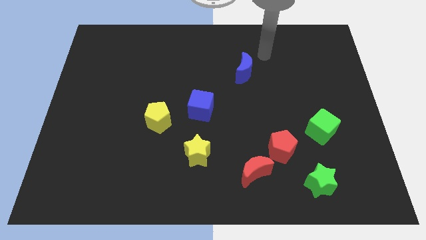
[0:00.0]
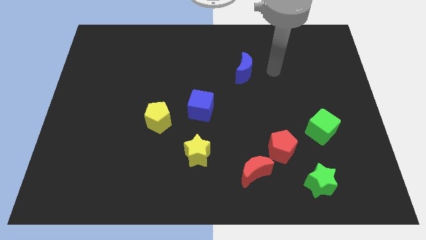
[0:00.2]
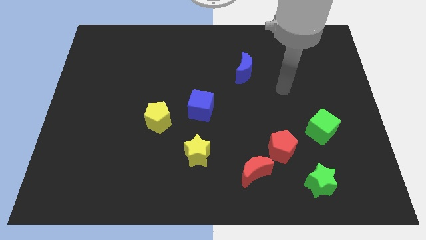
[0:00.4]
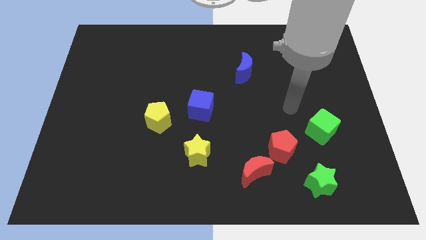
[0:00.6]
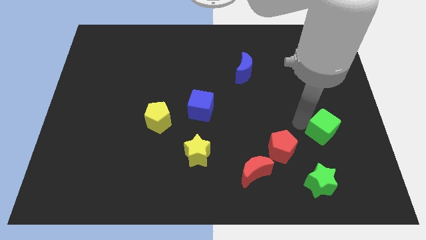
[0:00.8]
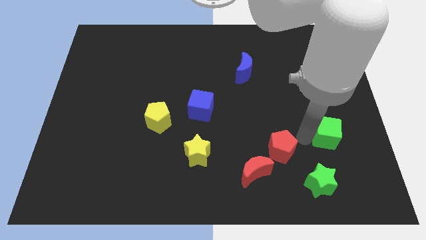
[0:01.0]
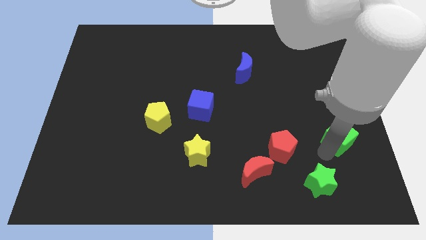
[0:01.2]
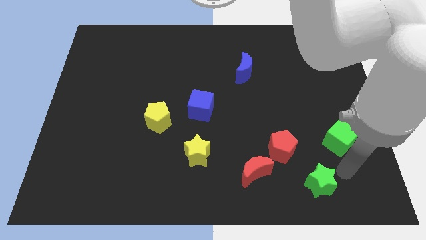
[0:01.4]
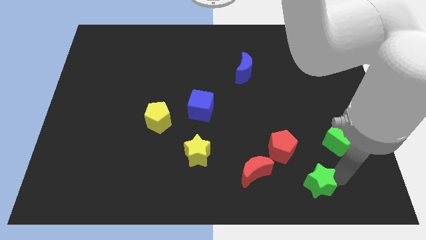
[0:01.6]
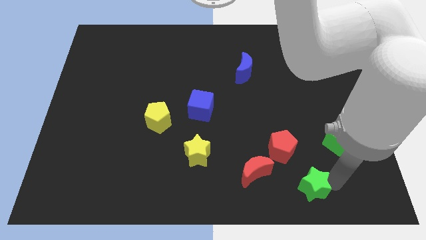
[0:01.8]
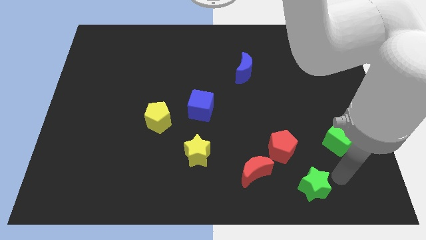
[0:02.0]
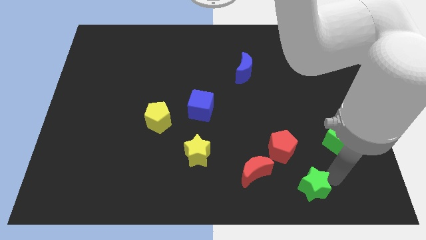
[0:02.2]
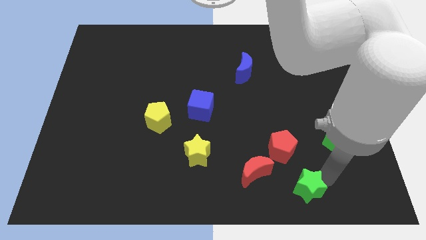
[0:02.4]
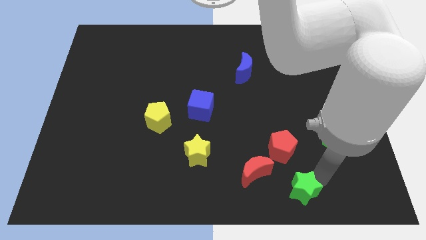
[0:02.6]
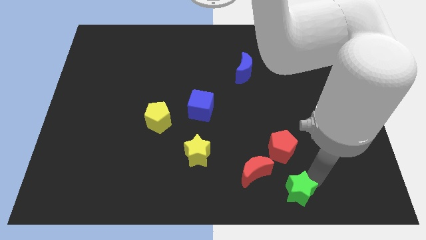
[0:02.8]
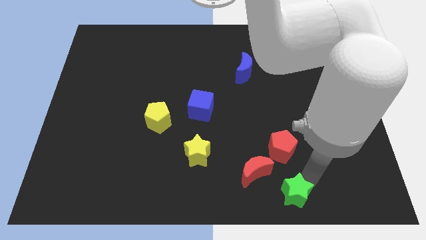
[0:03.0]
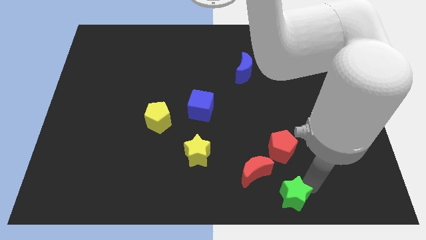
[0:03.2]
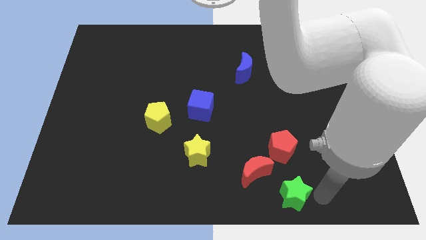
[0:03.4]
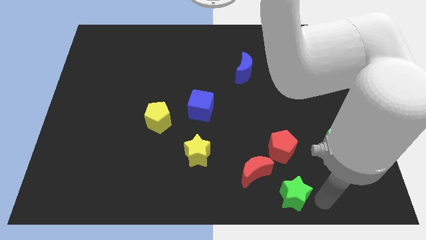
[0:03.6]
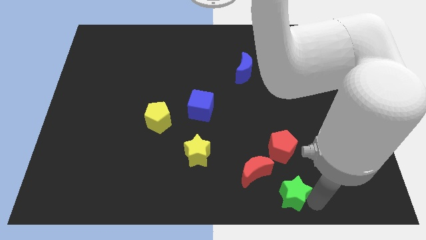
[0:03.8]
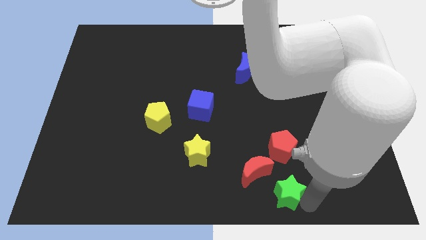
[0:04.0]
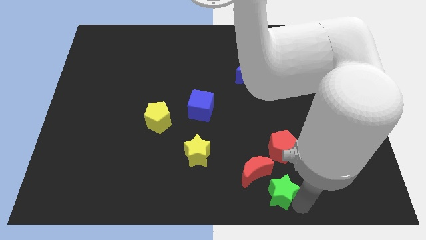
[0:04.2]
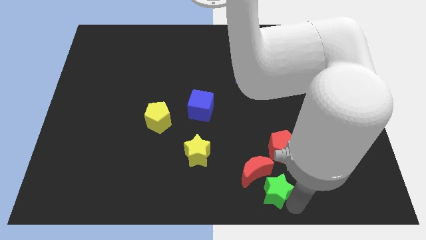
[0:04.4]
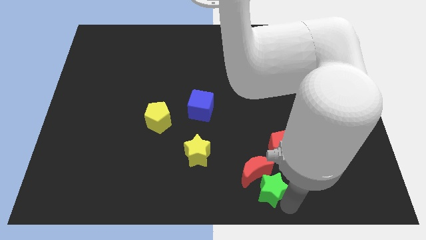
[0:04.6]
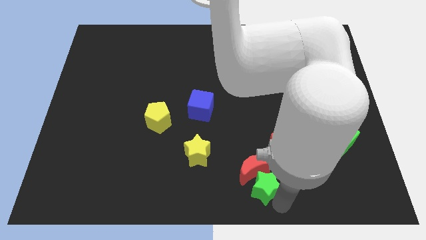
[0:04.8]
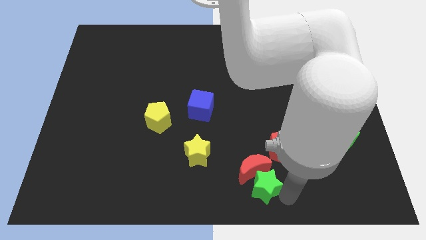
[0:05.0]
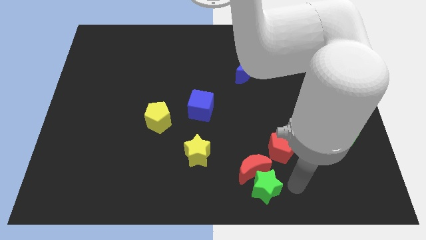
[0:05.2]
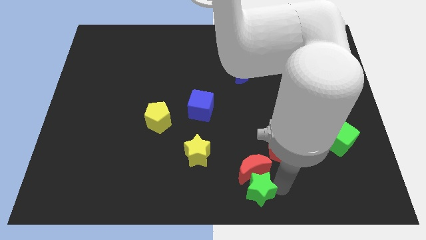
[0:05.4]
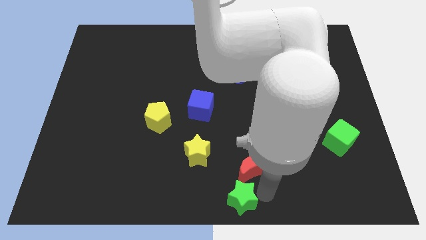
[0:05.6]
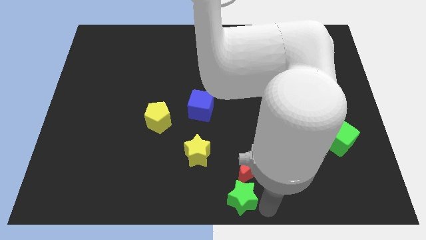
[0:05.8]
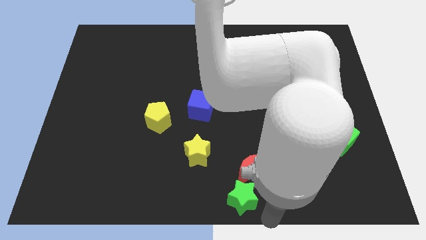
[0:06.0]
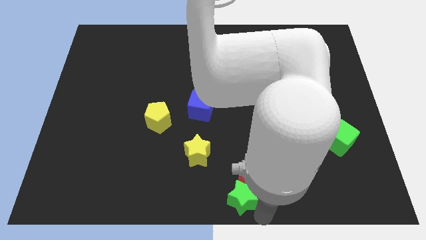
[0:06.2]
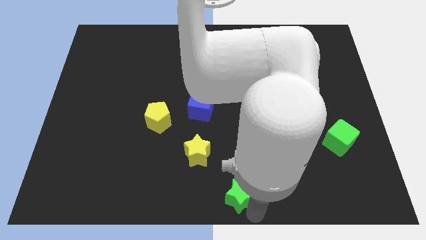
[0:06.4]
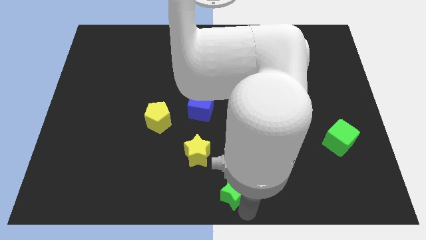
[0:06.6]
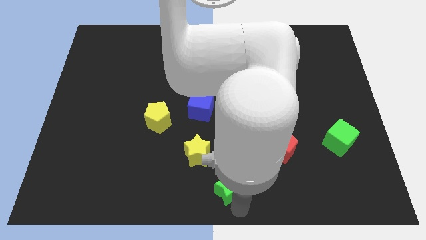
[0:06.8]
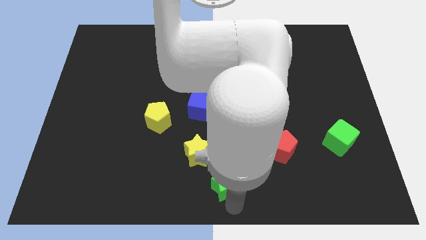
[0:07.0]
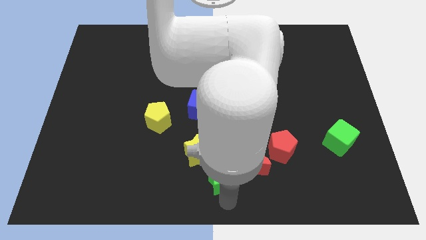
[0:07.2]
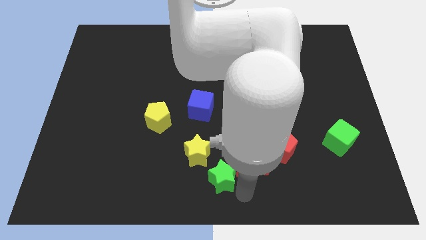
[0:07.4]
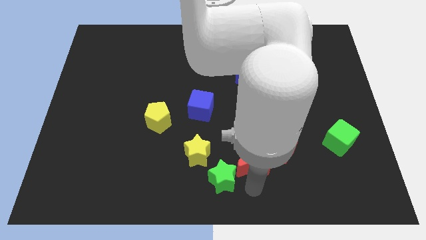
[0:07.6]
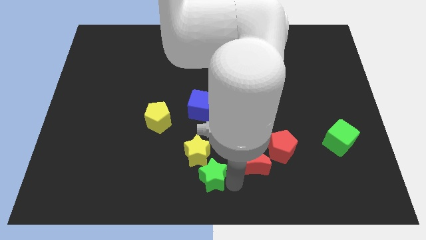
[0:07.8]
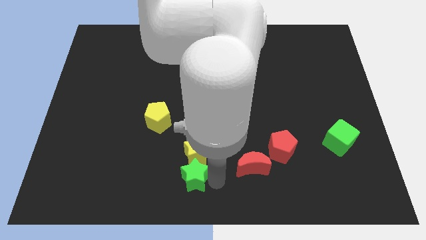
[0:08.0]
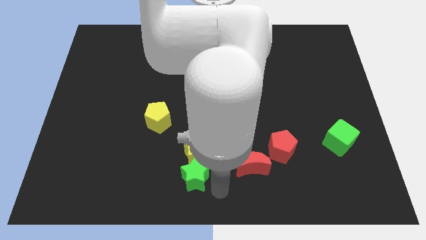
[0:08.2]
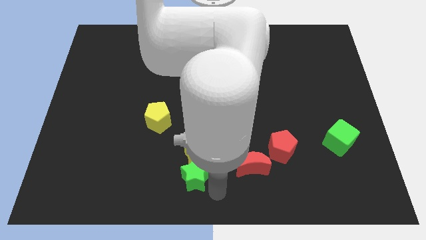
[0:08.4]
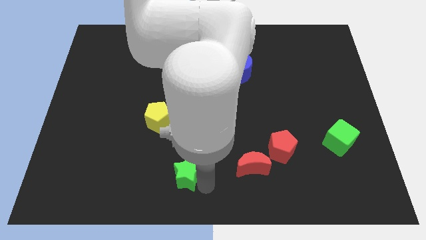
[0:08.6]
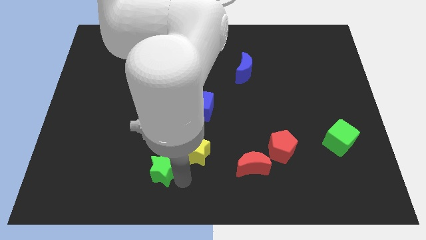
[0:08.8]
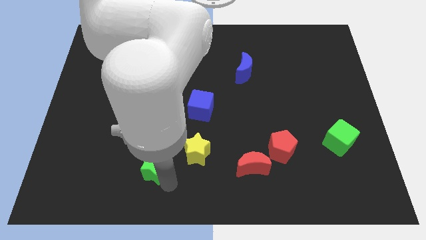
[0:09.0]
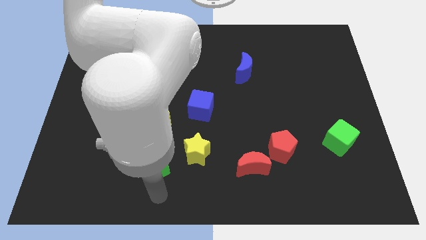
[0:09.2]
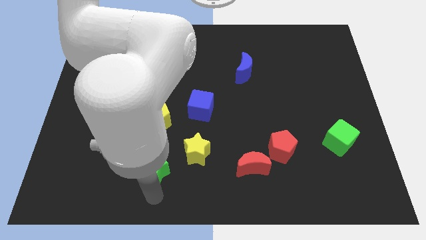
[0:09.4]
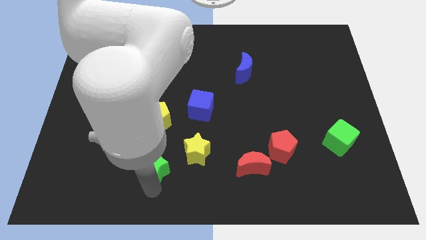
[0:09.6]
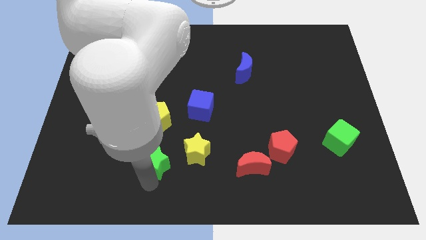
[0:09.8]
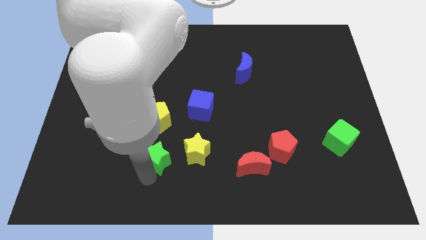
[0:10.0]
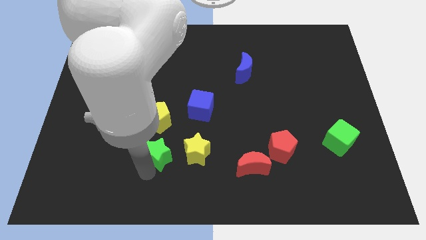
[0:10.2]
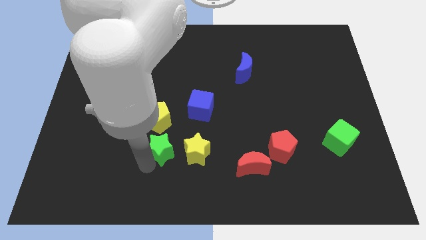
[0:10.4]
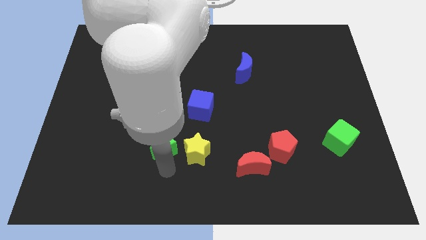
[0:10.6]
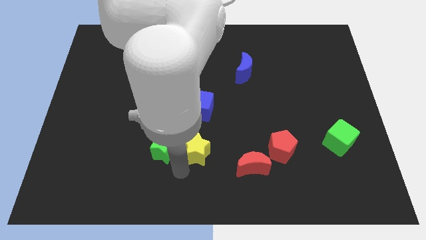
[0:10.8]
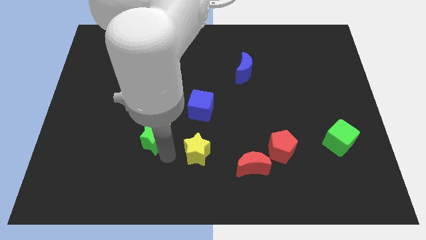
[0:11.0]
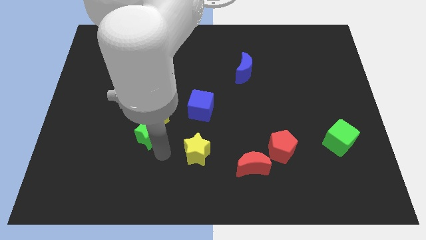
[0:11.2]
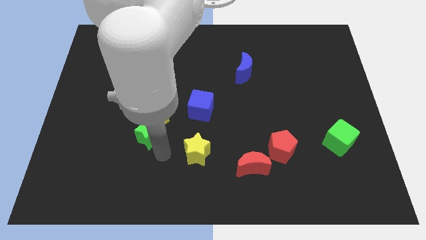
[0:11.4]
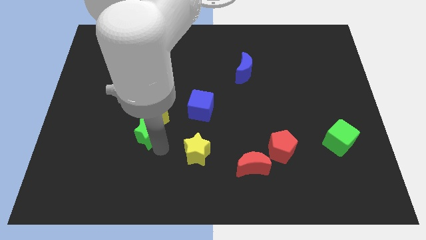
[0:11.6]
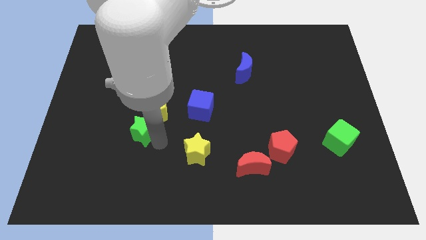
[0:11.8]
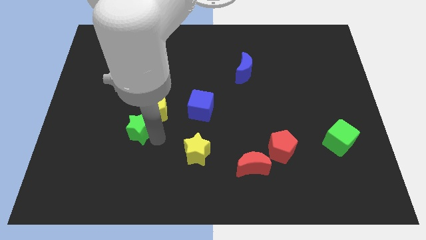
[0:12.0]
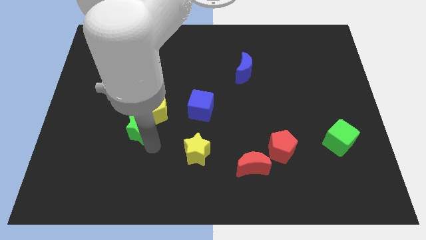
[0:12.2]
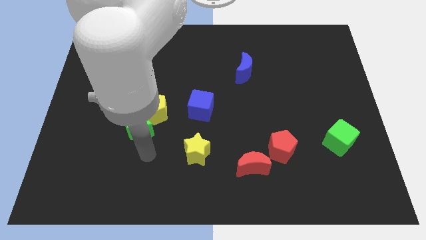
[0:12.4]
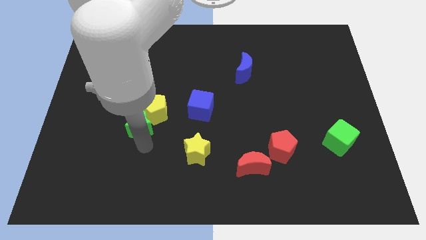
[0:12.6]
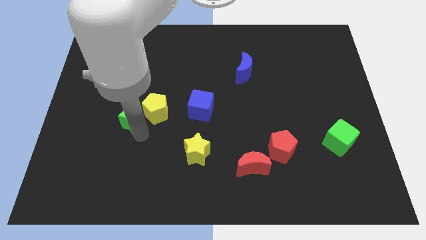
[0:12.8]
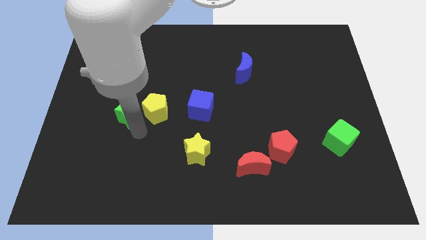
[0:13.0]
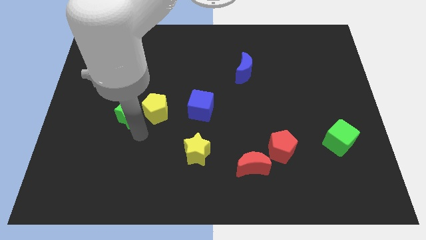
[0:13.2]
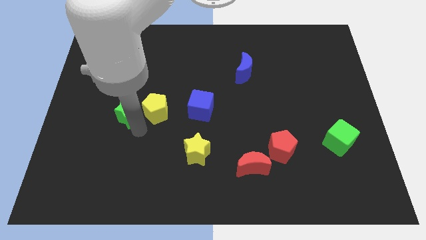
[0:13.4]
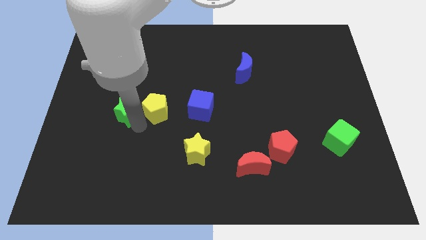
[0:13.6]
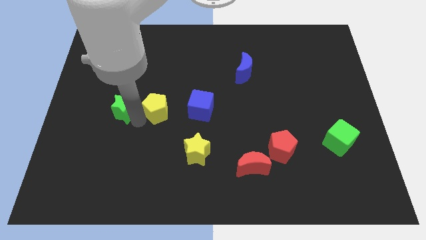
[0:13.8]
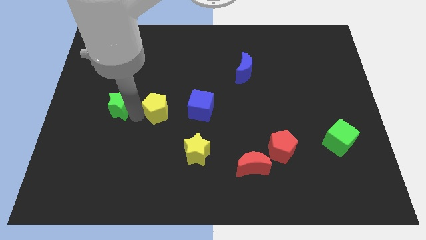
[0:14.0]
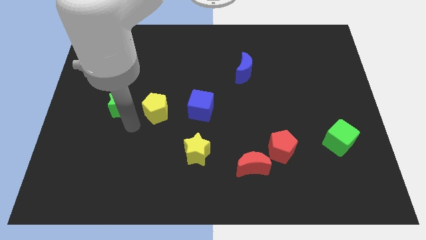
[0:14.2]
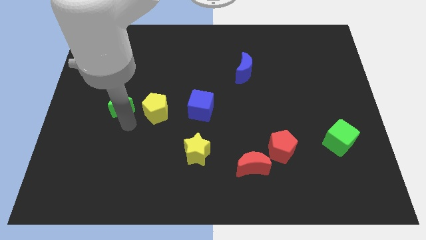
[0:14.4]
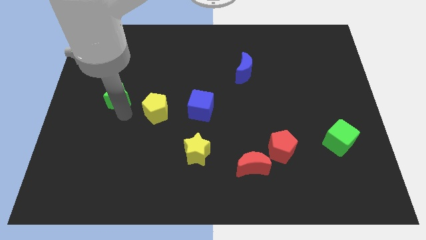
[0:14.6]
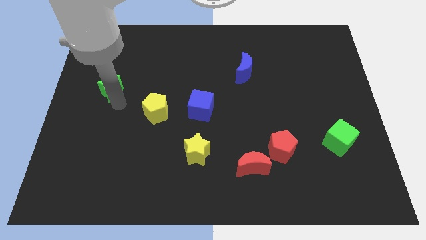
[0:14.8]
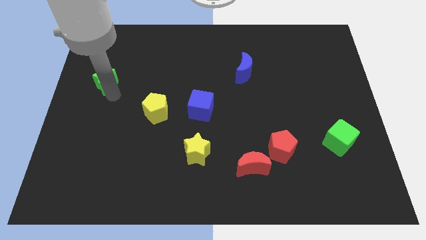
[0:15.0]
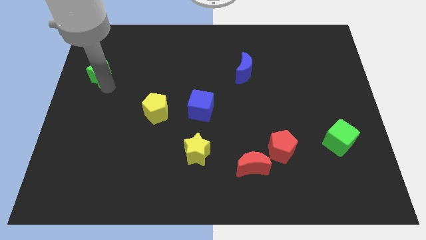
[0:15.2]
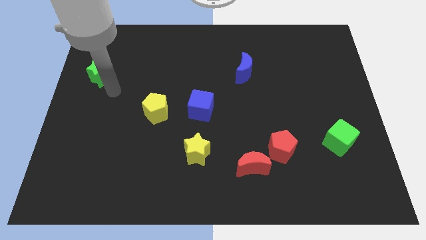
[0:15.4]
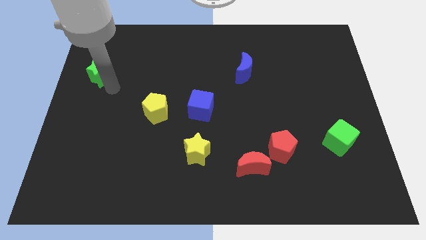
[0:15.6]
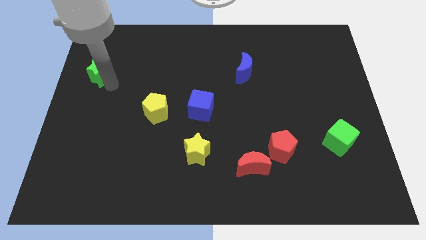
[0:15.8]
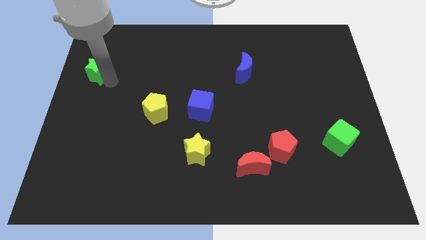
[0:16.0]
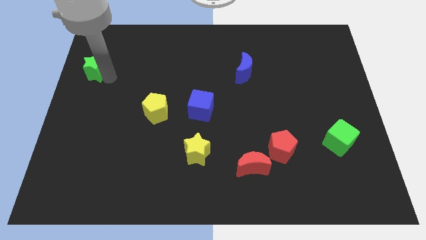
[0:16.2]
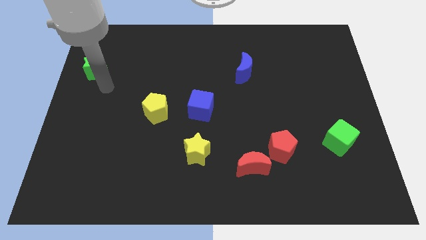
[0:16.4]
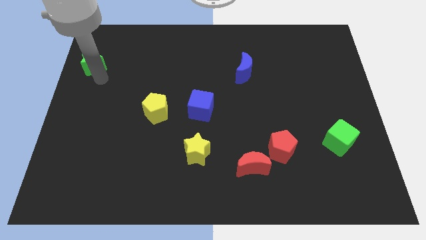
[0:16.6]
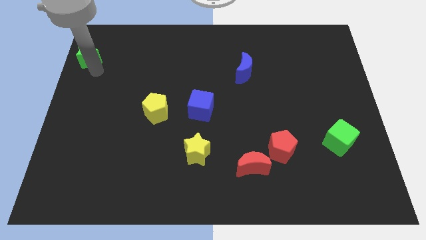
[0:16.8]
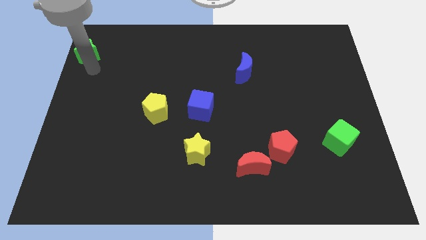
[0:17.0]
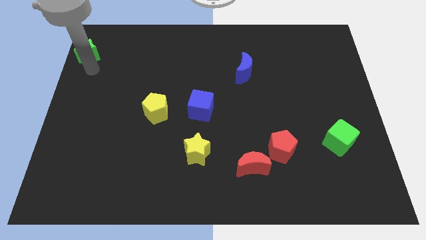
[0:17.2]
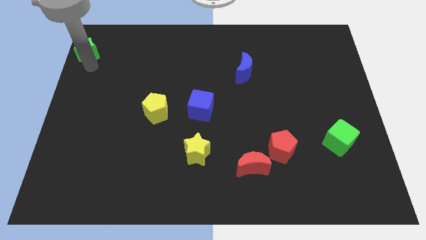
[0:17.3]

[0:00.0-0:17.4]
put the green star to the upper left corner
